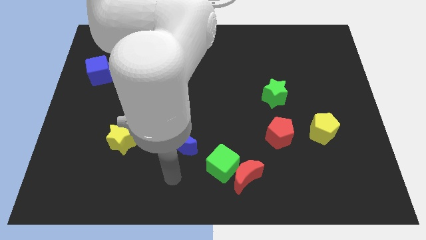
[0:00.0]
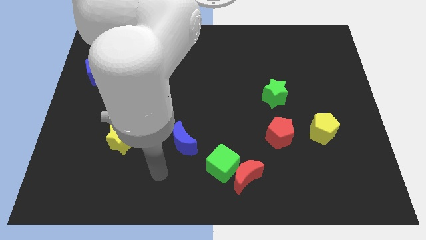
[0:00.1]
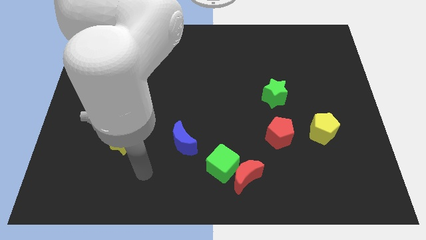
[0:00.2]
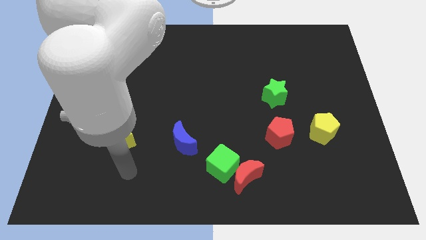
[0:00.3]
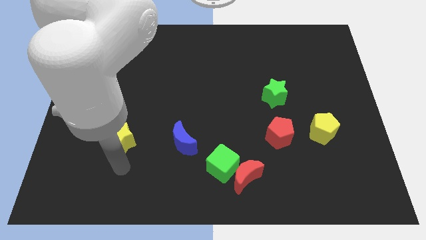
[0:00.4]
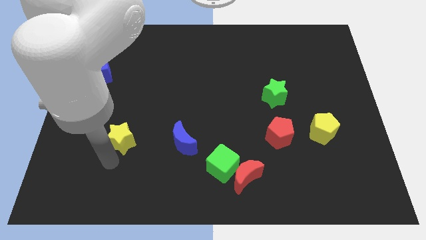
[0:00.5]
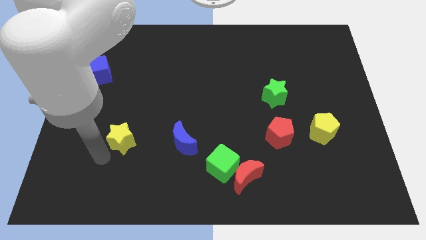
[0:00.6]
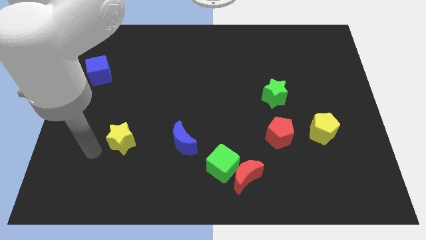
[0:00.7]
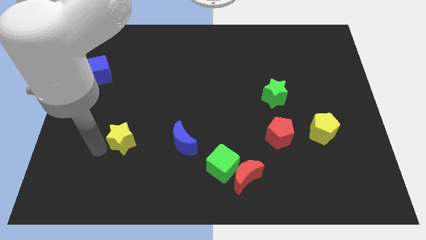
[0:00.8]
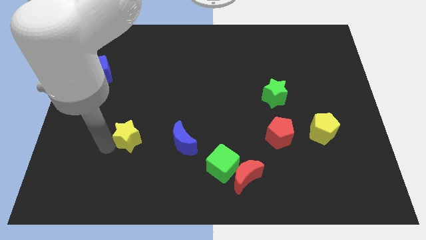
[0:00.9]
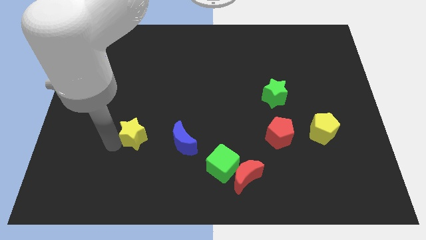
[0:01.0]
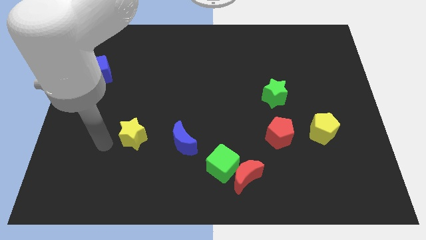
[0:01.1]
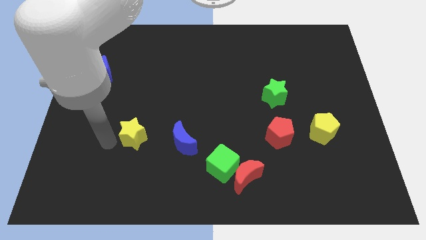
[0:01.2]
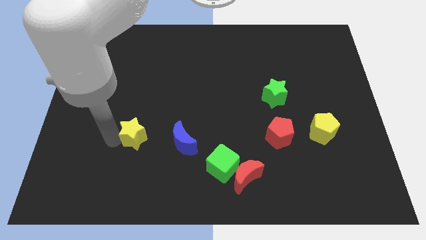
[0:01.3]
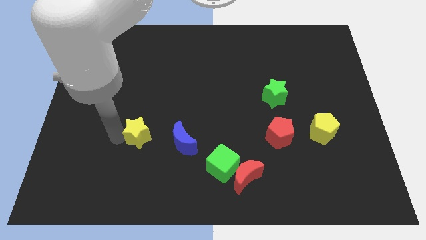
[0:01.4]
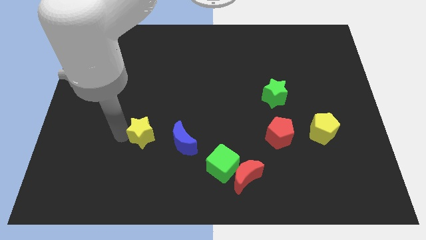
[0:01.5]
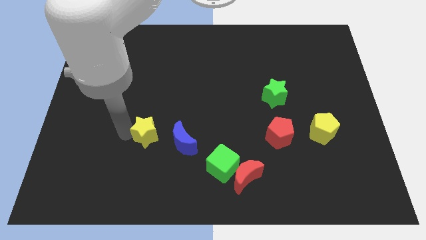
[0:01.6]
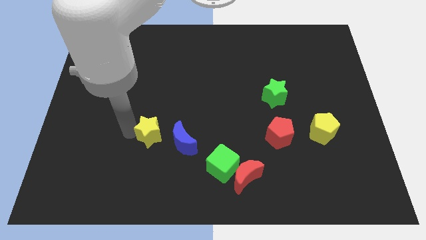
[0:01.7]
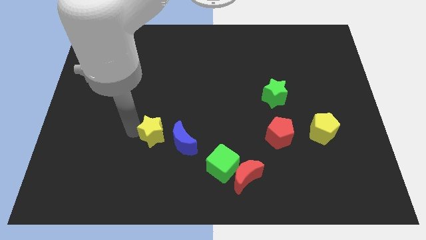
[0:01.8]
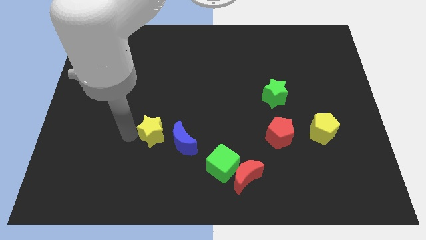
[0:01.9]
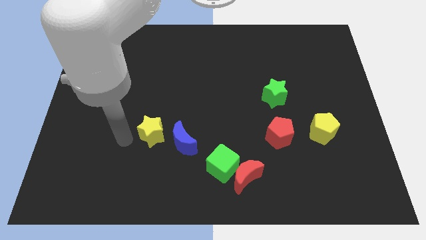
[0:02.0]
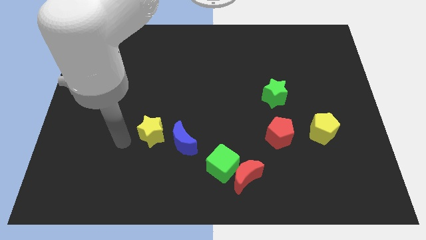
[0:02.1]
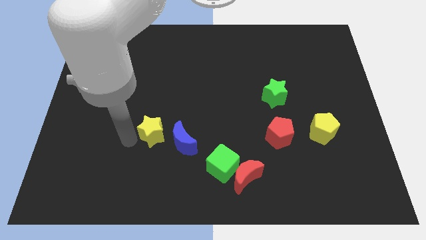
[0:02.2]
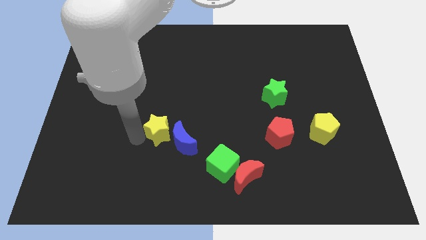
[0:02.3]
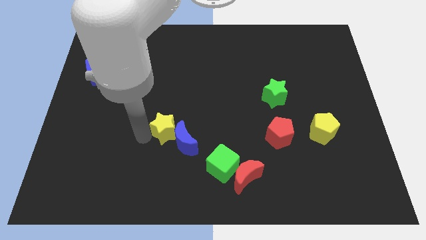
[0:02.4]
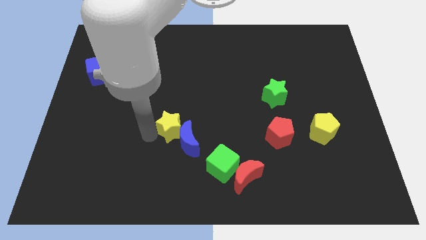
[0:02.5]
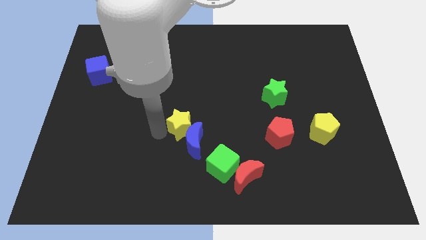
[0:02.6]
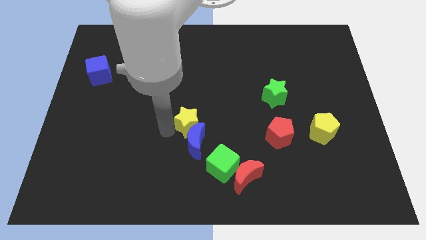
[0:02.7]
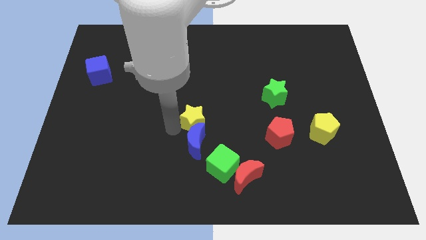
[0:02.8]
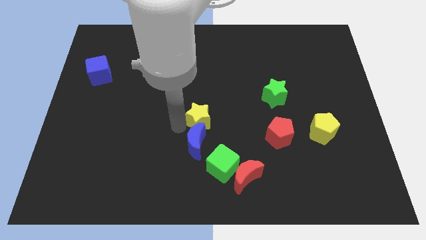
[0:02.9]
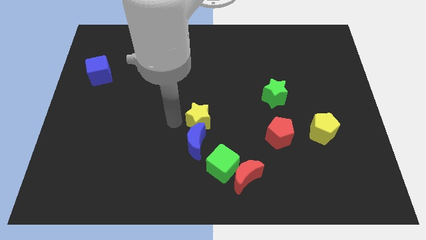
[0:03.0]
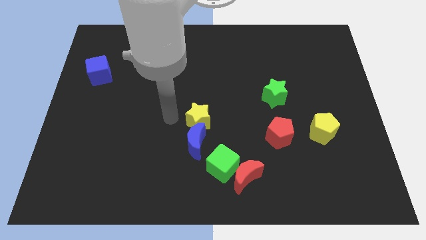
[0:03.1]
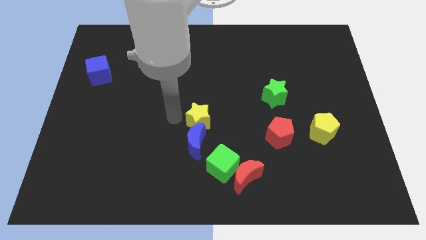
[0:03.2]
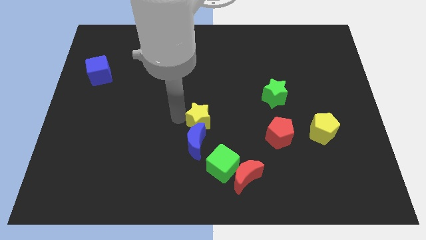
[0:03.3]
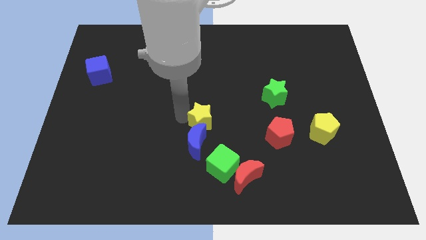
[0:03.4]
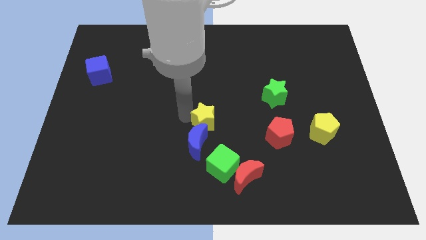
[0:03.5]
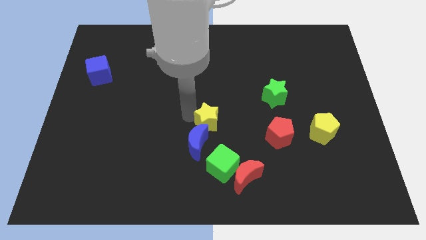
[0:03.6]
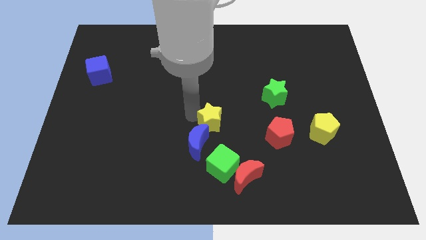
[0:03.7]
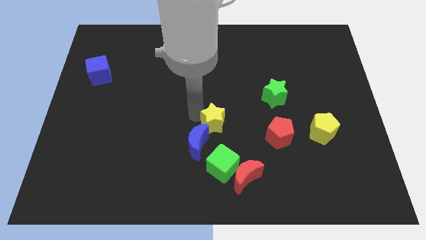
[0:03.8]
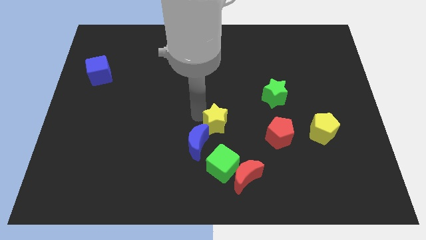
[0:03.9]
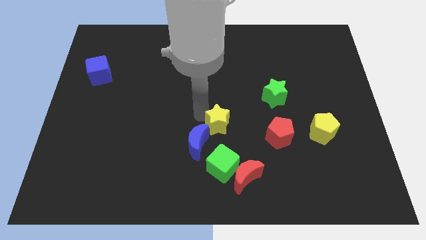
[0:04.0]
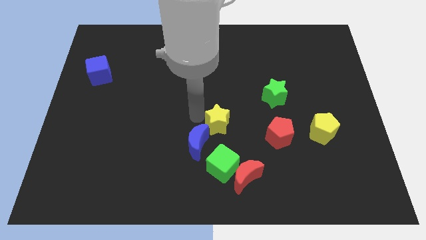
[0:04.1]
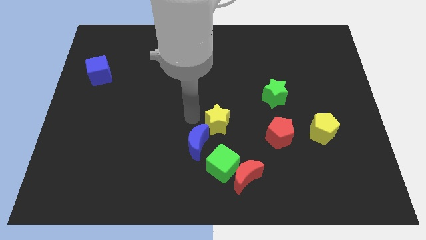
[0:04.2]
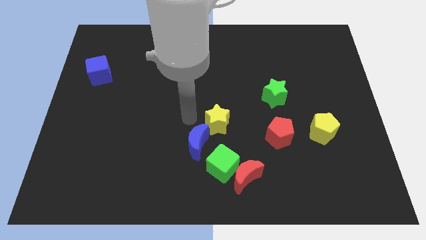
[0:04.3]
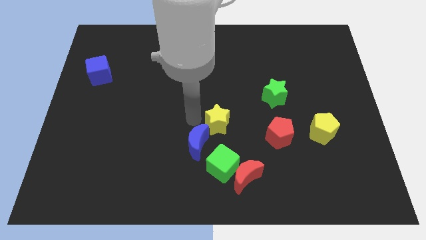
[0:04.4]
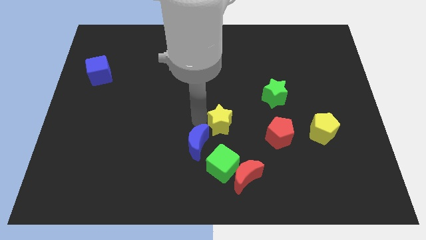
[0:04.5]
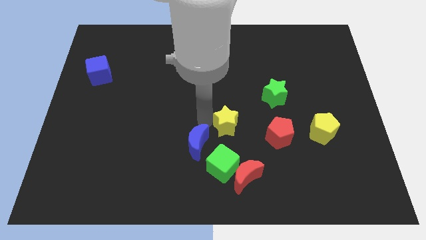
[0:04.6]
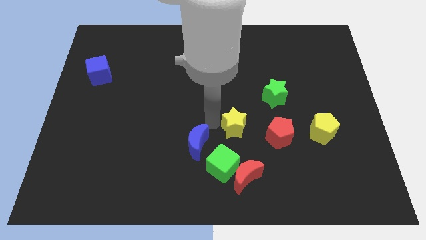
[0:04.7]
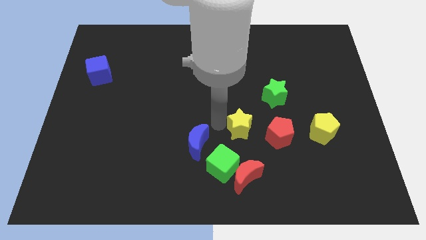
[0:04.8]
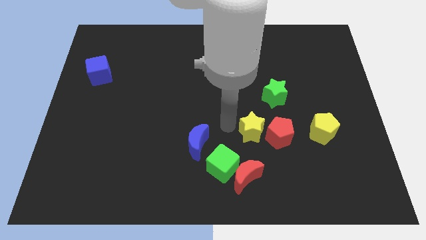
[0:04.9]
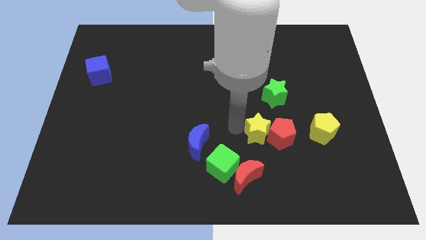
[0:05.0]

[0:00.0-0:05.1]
push the yellow star next to the red pentagon

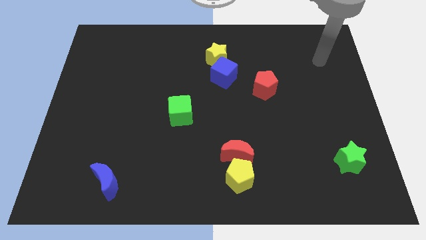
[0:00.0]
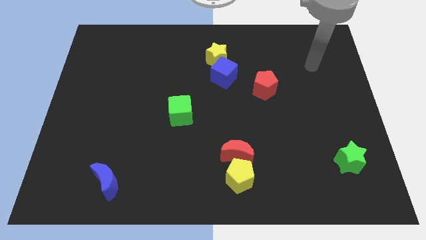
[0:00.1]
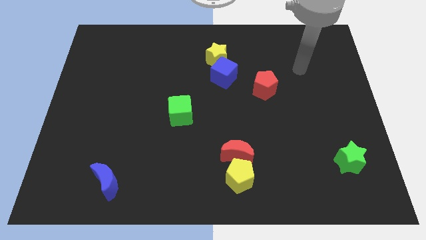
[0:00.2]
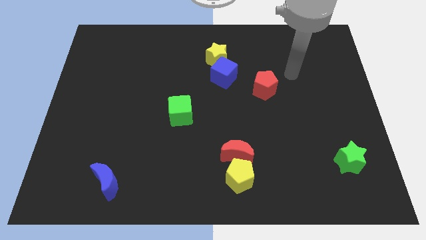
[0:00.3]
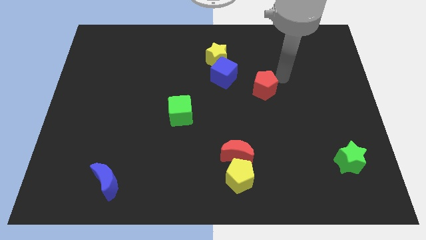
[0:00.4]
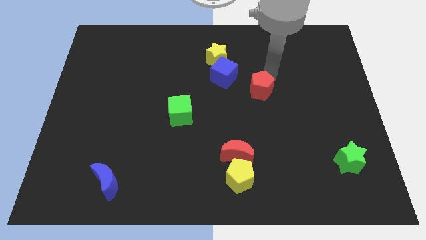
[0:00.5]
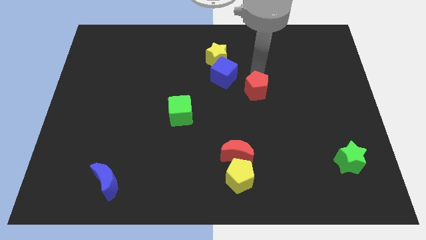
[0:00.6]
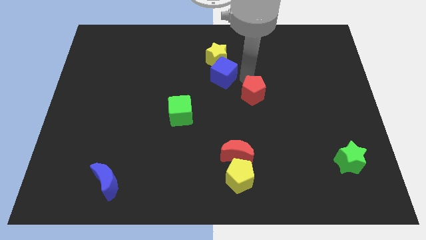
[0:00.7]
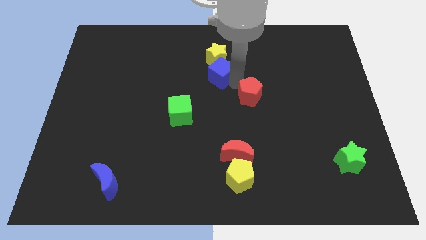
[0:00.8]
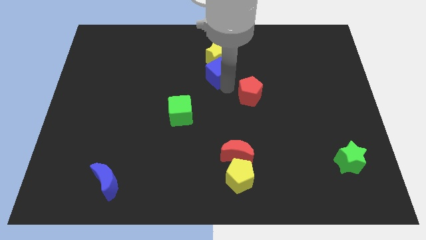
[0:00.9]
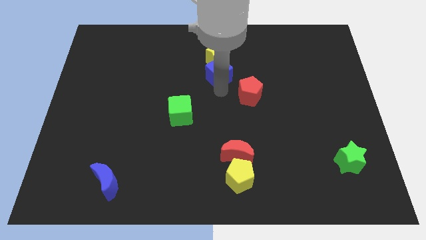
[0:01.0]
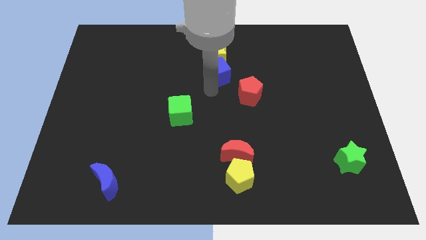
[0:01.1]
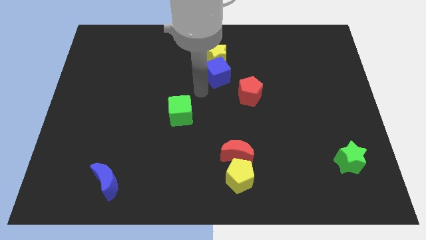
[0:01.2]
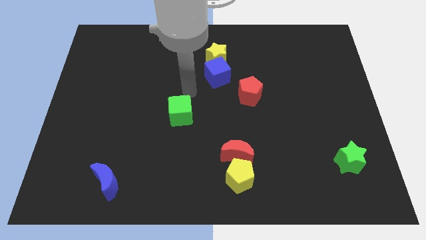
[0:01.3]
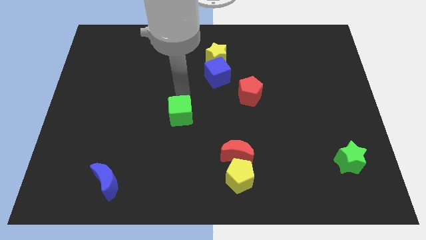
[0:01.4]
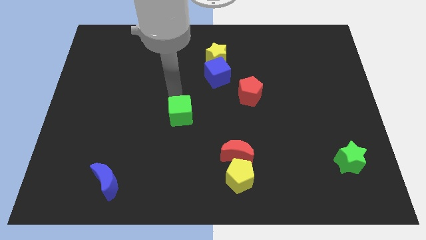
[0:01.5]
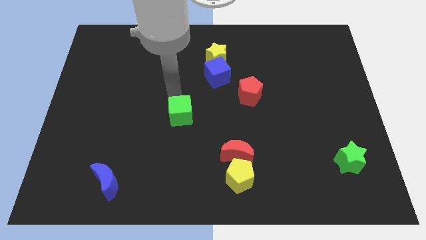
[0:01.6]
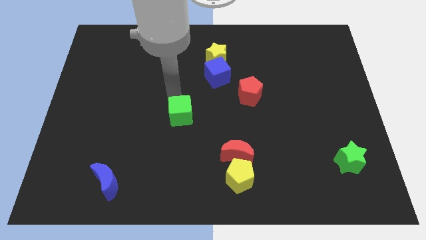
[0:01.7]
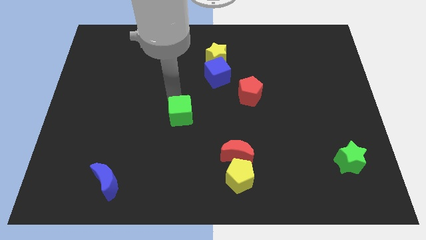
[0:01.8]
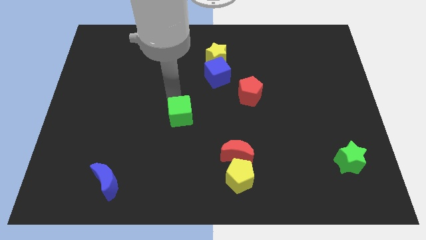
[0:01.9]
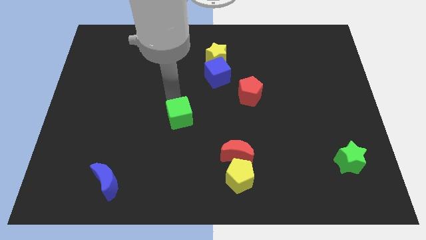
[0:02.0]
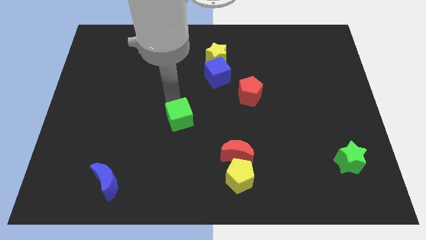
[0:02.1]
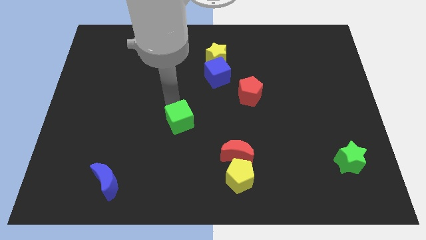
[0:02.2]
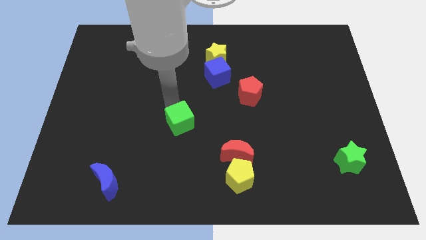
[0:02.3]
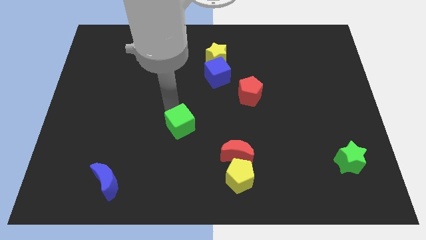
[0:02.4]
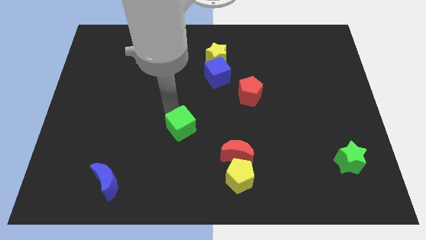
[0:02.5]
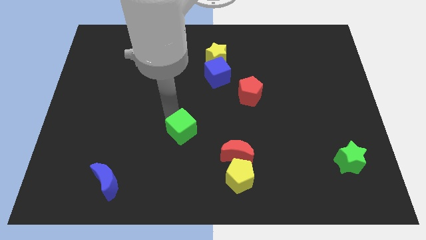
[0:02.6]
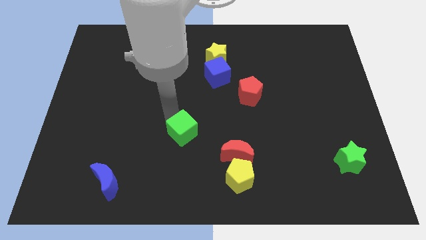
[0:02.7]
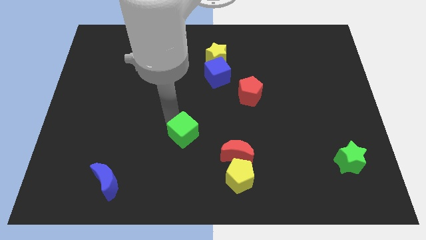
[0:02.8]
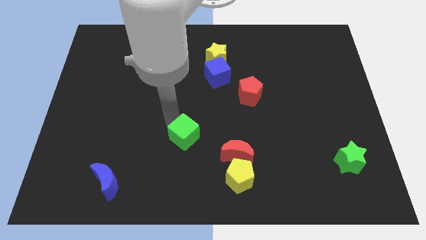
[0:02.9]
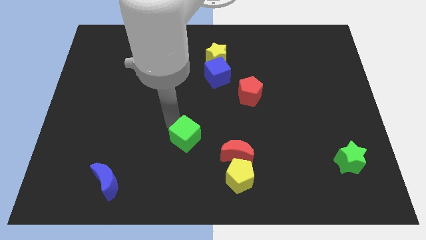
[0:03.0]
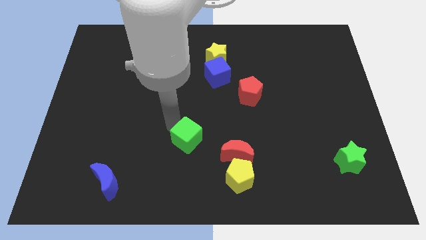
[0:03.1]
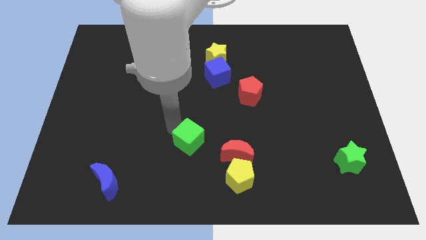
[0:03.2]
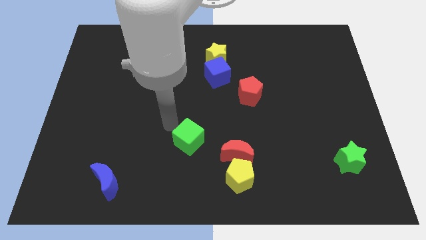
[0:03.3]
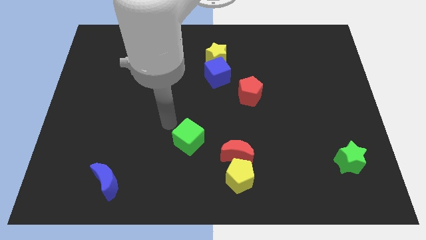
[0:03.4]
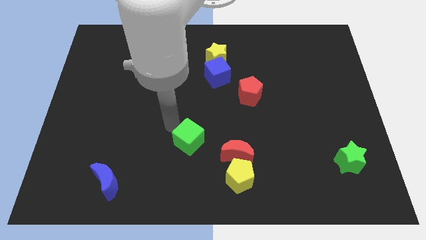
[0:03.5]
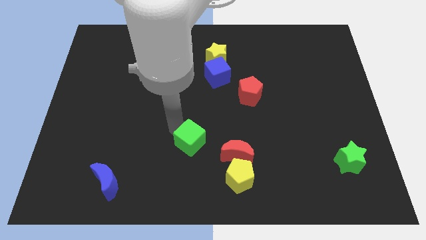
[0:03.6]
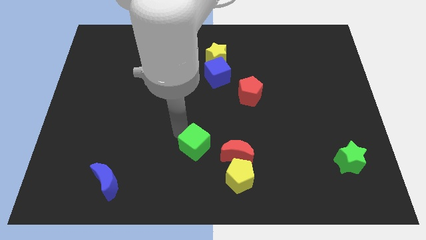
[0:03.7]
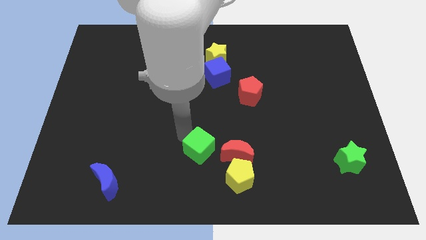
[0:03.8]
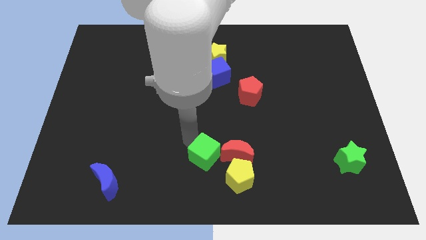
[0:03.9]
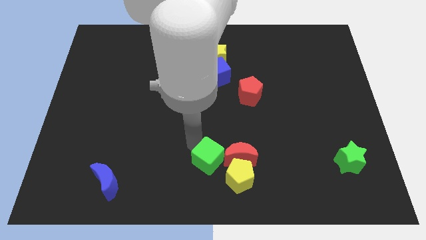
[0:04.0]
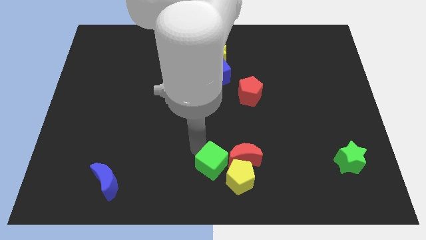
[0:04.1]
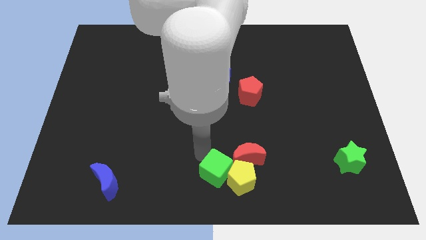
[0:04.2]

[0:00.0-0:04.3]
move the green cube to the yellow pentagon
